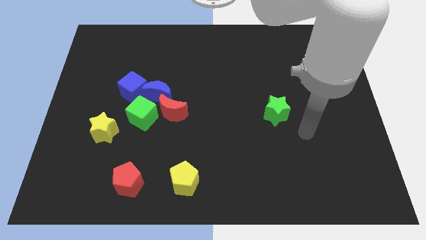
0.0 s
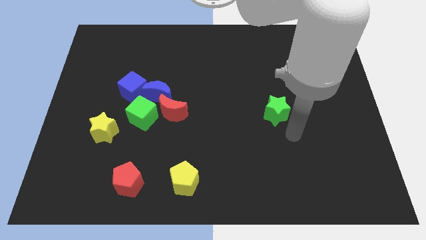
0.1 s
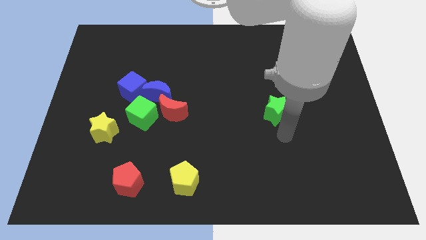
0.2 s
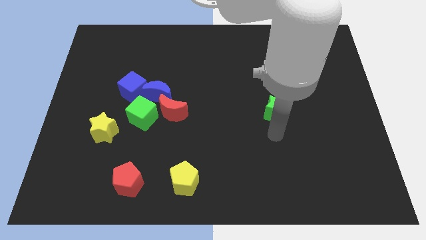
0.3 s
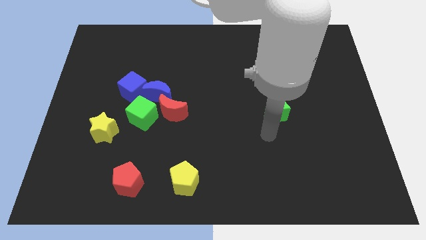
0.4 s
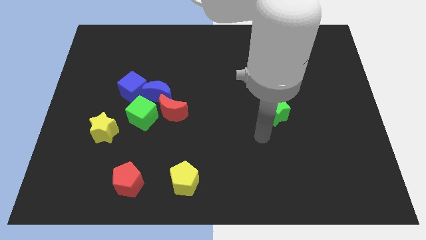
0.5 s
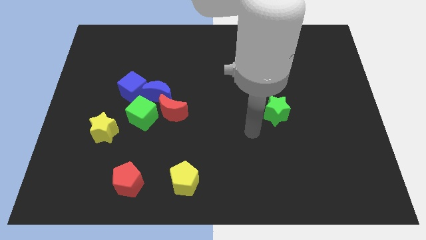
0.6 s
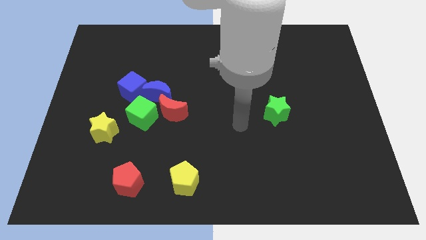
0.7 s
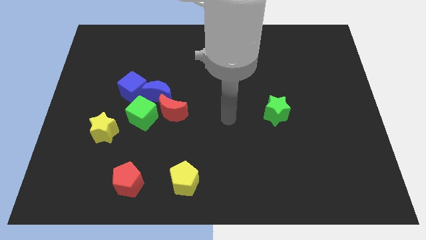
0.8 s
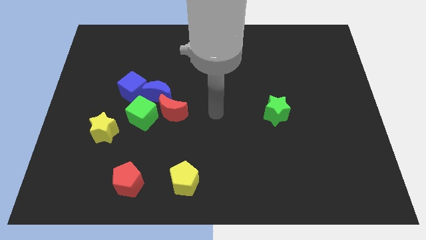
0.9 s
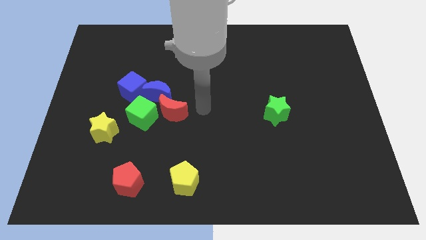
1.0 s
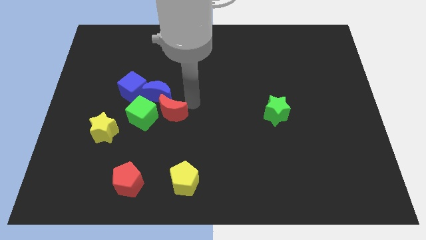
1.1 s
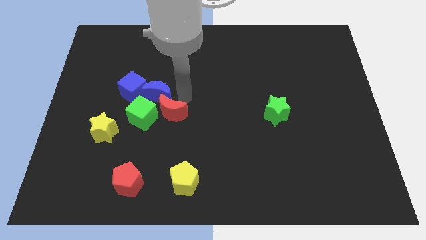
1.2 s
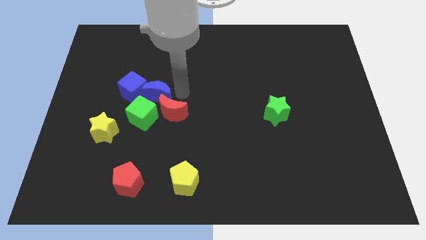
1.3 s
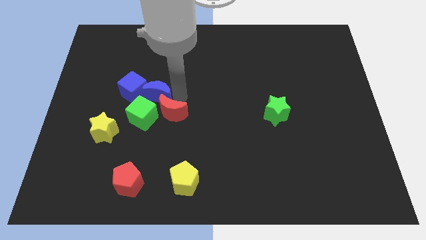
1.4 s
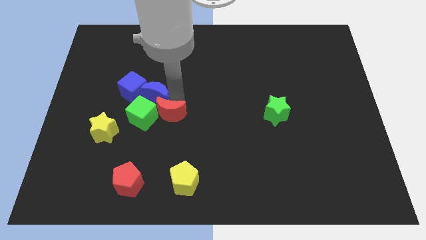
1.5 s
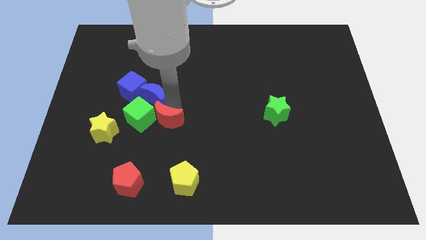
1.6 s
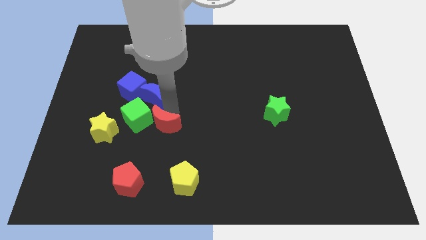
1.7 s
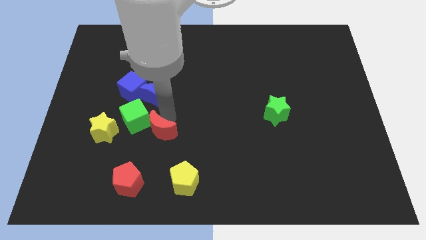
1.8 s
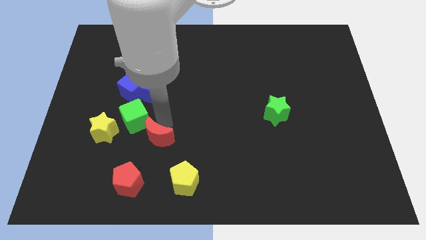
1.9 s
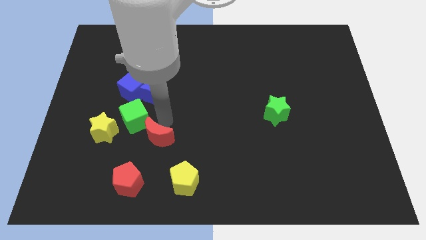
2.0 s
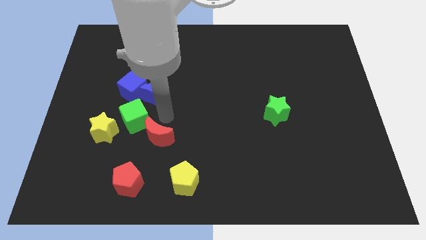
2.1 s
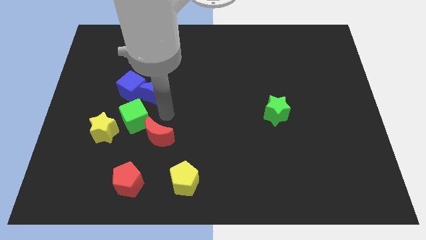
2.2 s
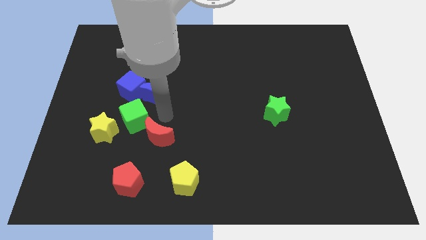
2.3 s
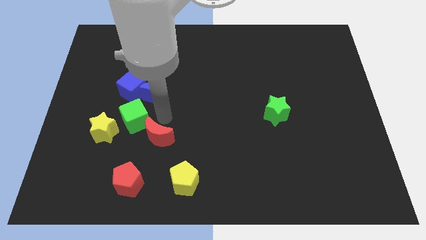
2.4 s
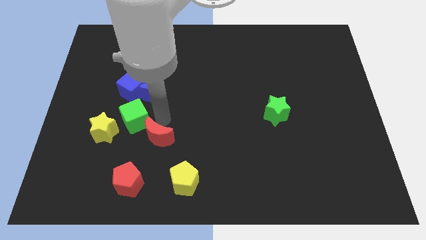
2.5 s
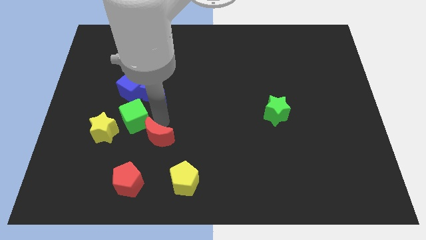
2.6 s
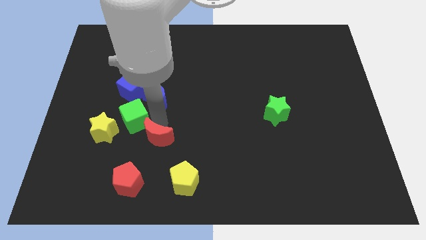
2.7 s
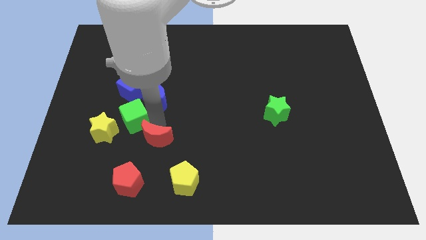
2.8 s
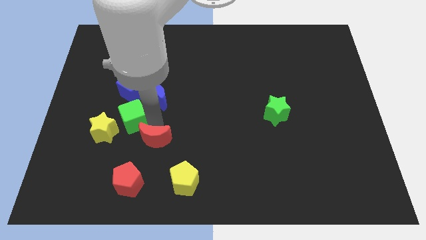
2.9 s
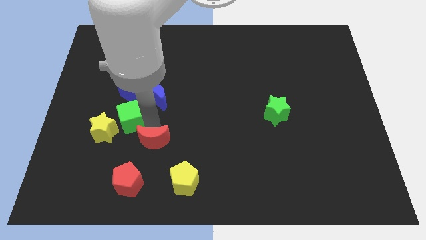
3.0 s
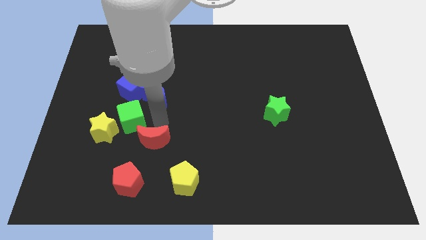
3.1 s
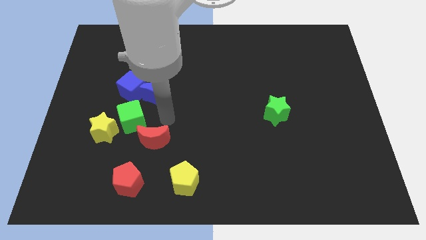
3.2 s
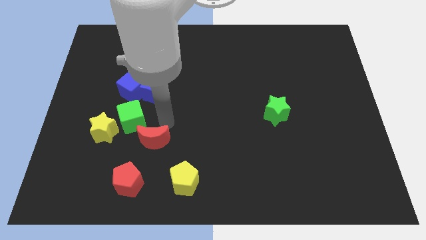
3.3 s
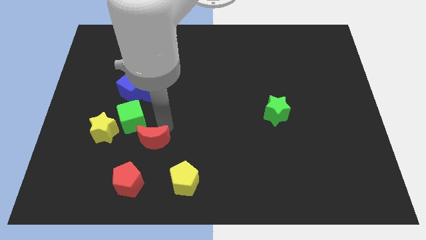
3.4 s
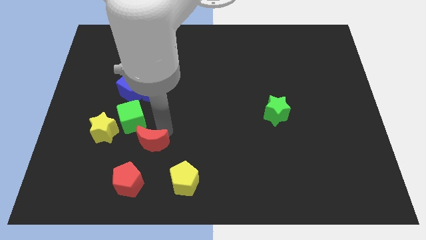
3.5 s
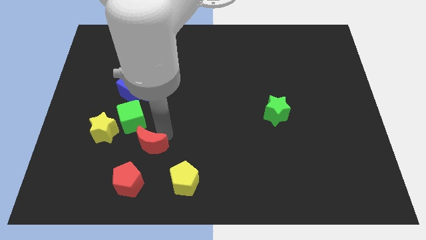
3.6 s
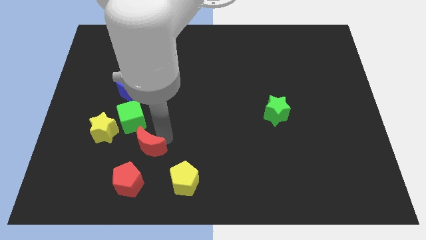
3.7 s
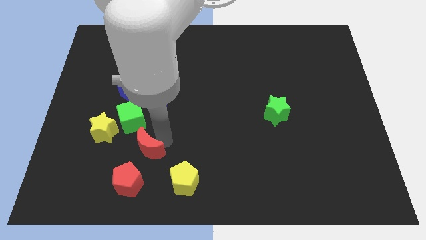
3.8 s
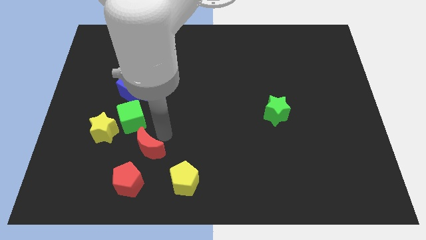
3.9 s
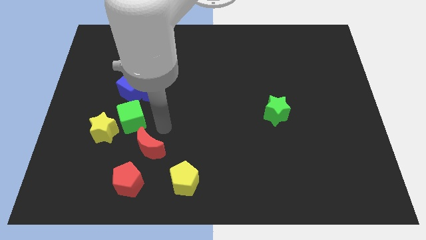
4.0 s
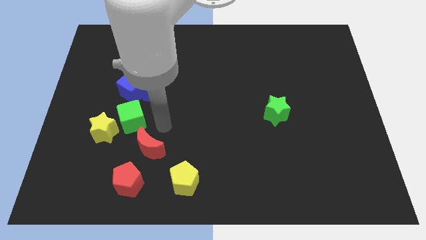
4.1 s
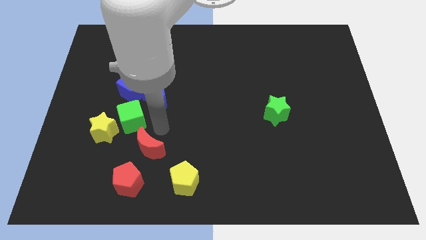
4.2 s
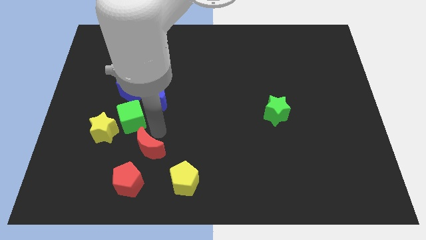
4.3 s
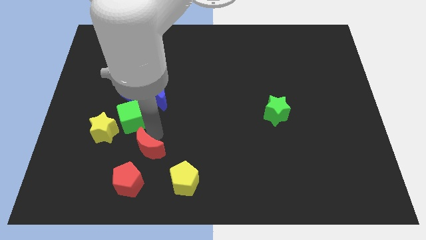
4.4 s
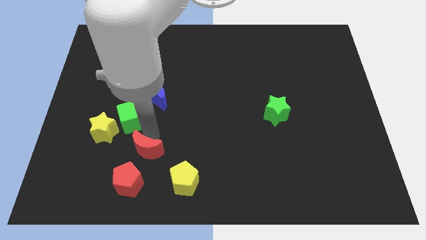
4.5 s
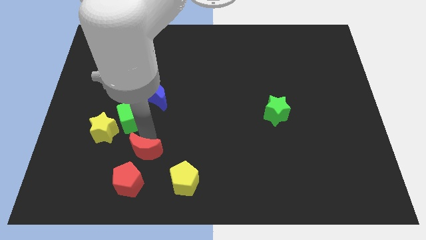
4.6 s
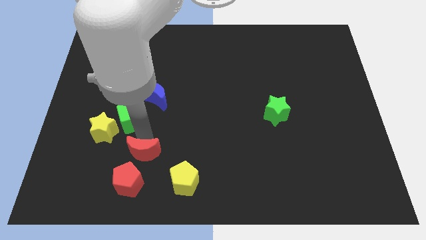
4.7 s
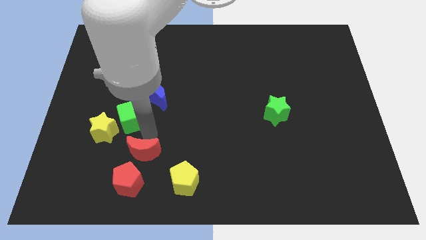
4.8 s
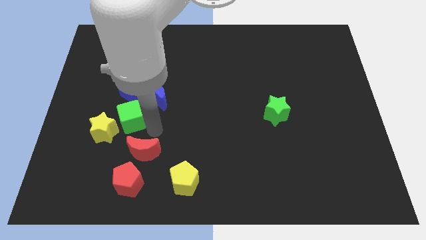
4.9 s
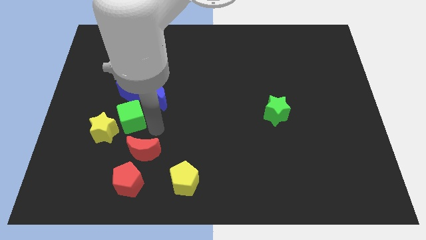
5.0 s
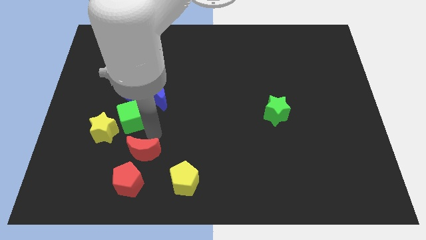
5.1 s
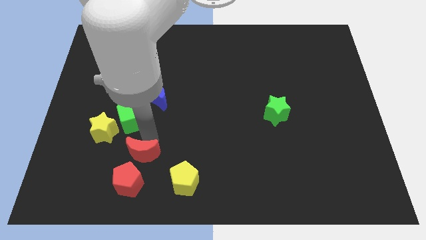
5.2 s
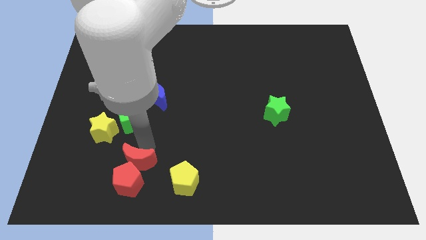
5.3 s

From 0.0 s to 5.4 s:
put the red moon to the red pentagon

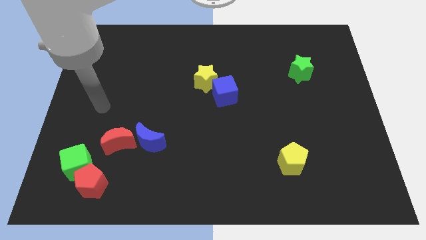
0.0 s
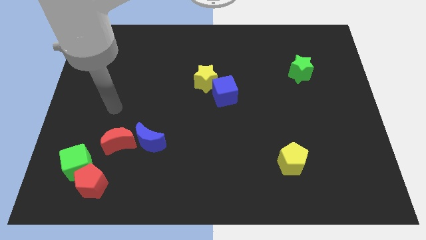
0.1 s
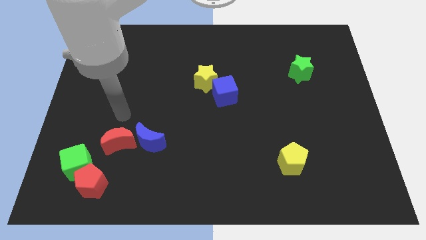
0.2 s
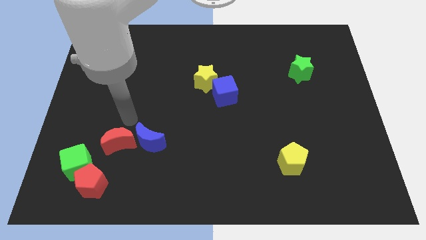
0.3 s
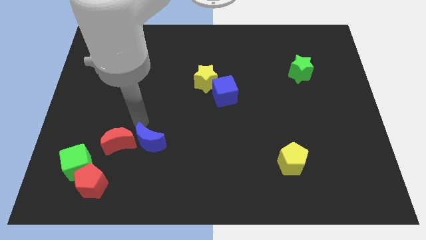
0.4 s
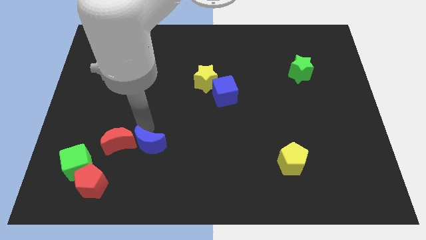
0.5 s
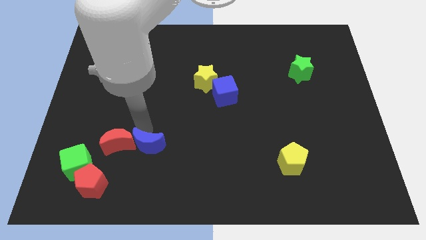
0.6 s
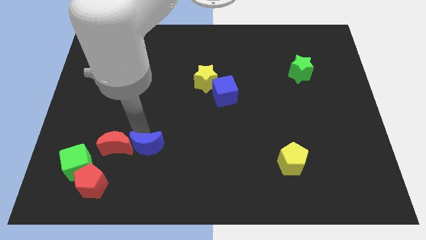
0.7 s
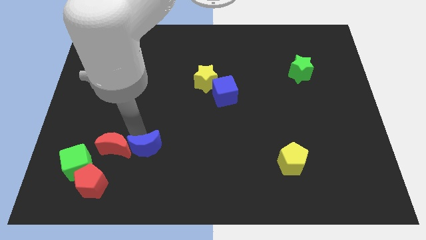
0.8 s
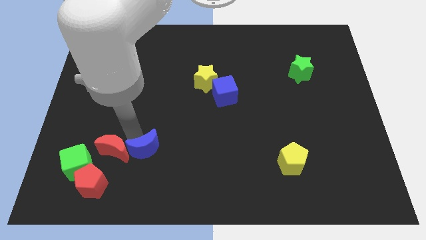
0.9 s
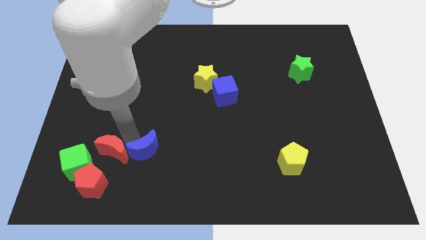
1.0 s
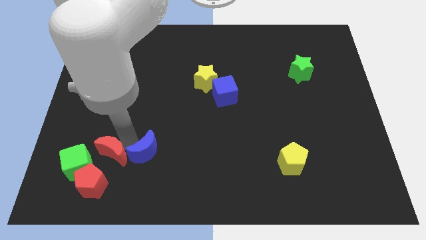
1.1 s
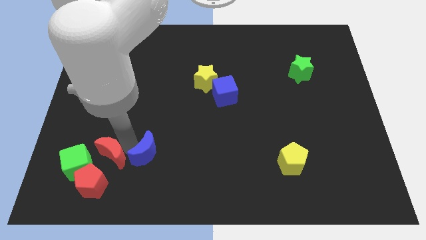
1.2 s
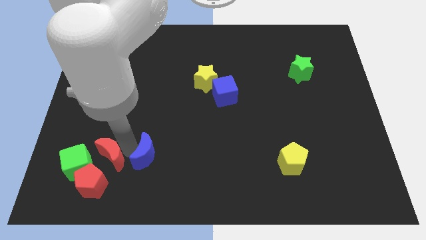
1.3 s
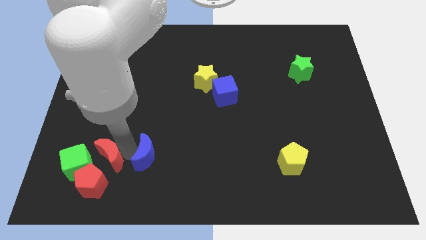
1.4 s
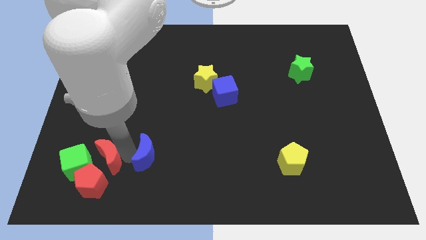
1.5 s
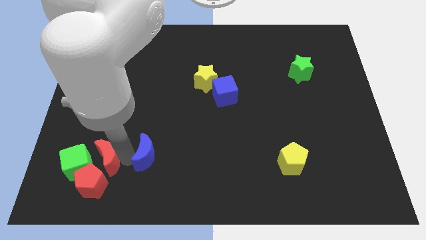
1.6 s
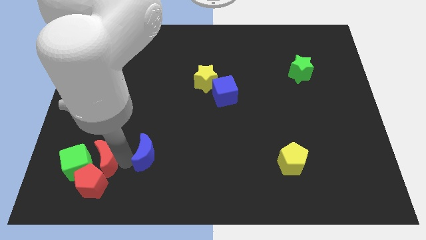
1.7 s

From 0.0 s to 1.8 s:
slide the red moon next to the green cube
